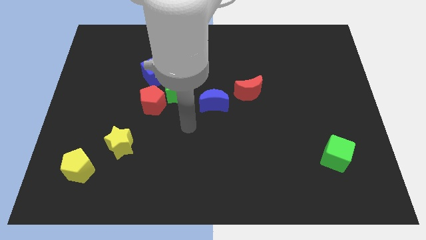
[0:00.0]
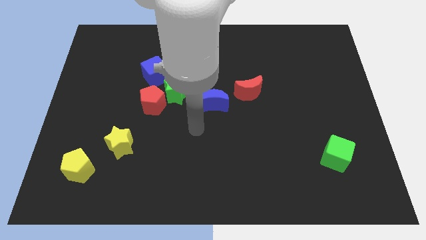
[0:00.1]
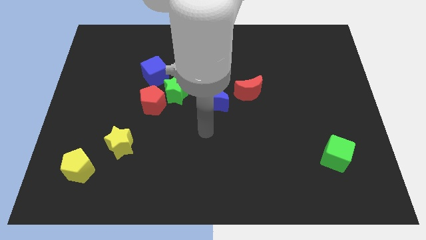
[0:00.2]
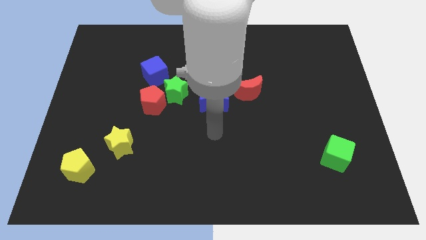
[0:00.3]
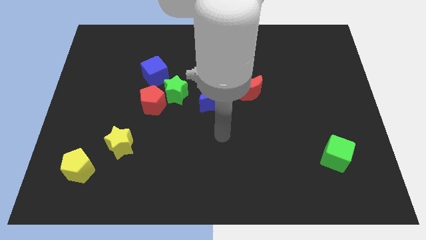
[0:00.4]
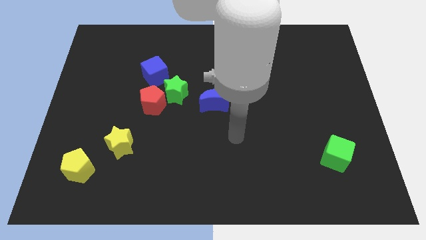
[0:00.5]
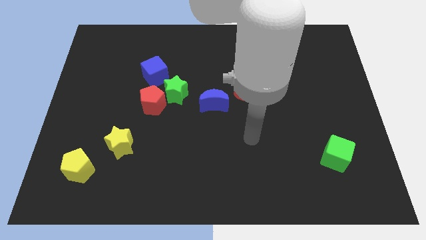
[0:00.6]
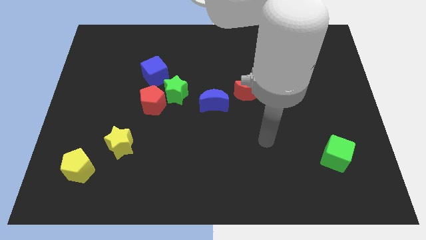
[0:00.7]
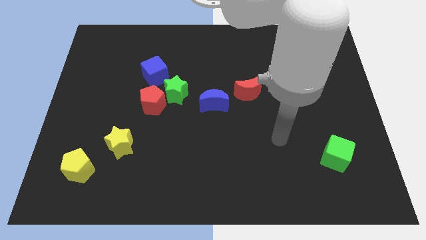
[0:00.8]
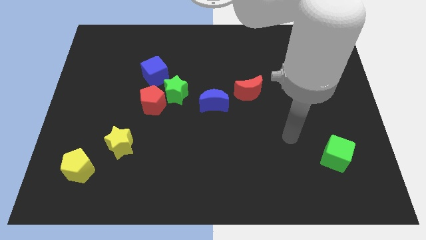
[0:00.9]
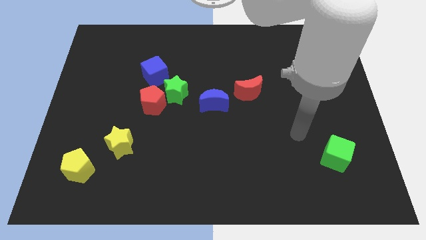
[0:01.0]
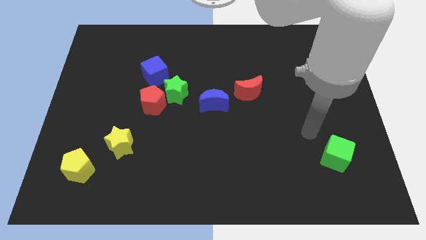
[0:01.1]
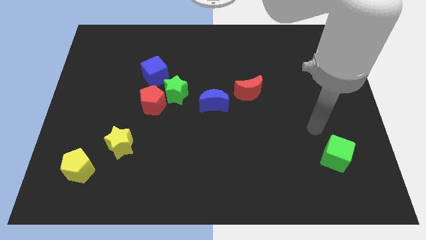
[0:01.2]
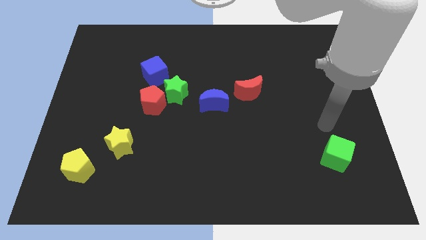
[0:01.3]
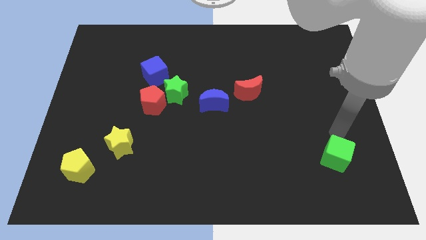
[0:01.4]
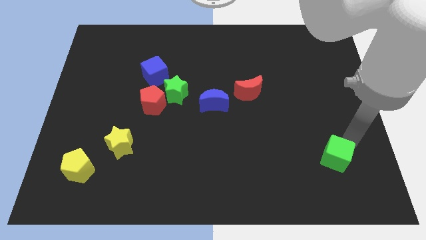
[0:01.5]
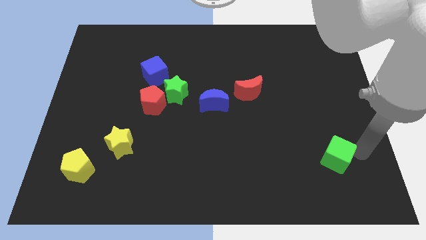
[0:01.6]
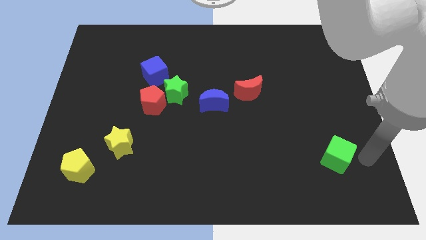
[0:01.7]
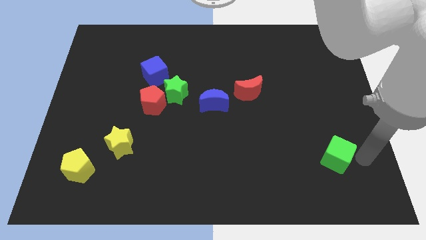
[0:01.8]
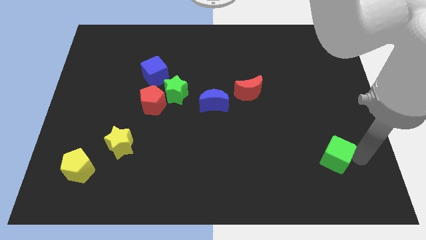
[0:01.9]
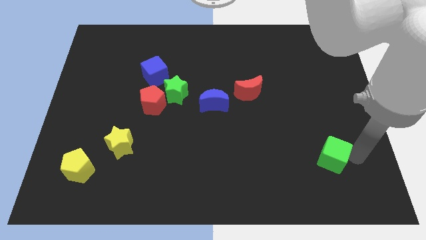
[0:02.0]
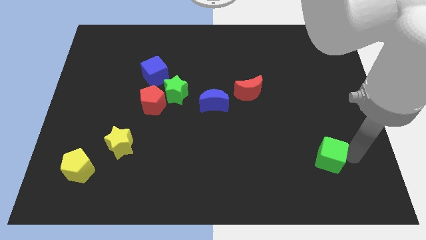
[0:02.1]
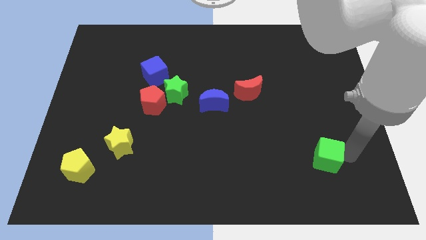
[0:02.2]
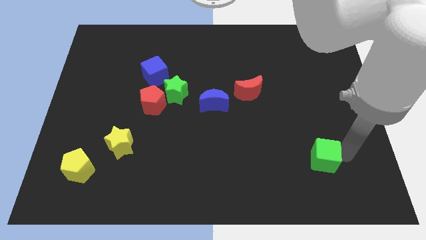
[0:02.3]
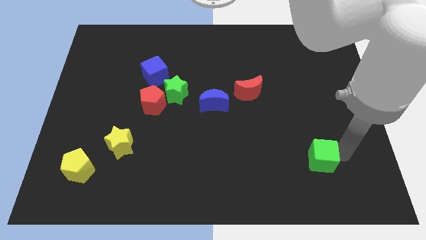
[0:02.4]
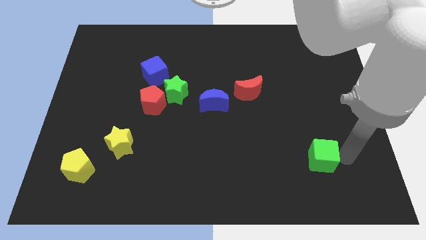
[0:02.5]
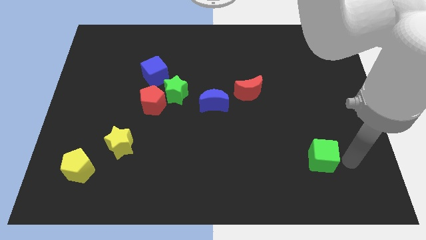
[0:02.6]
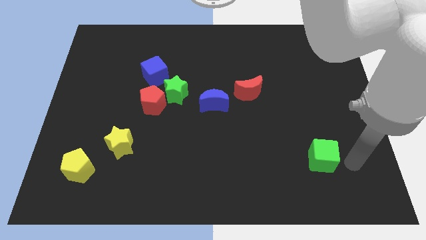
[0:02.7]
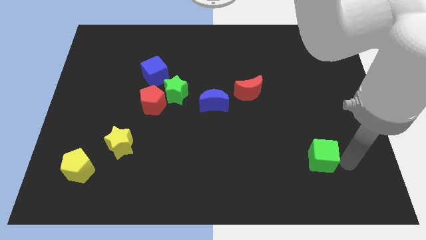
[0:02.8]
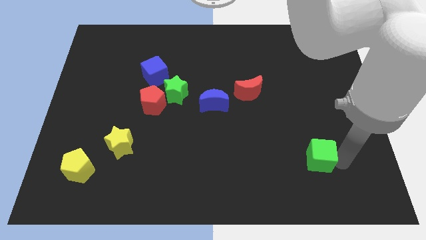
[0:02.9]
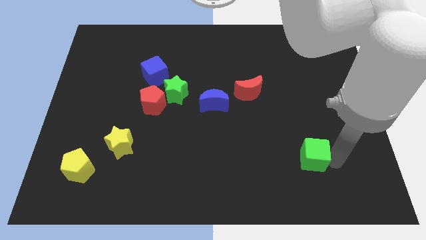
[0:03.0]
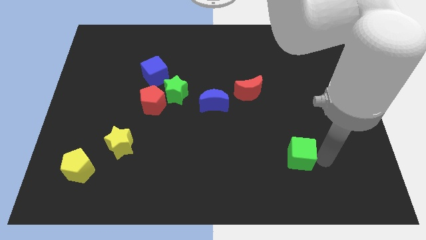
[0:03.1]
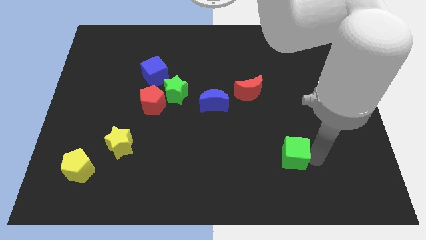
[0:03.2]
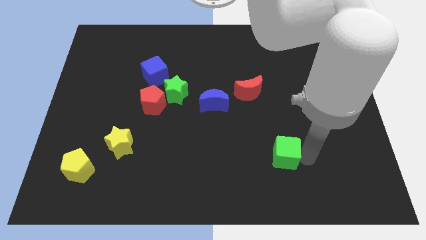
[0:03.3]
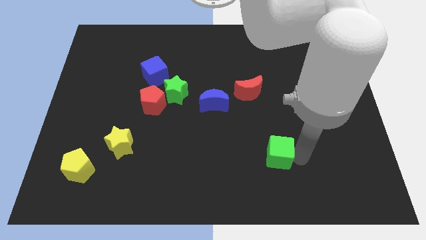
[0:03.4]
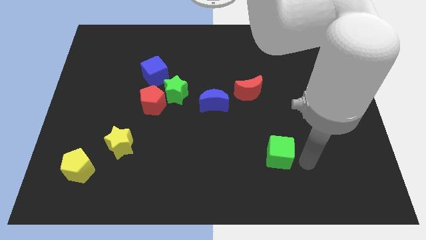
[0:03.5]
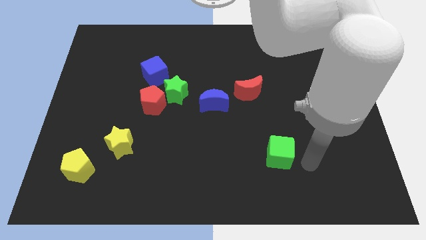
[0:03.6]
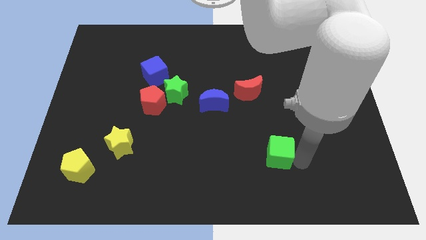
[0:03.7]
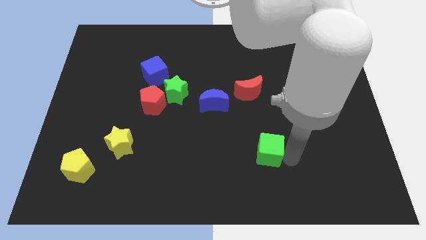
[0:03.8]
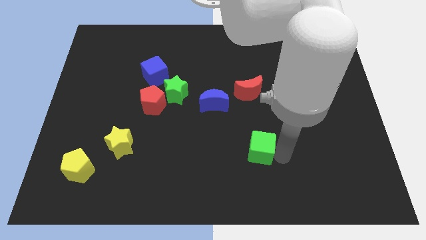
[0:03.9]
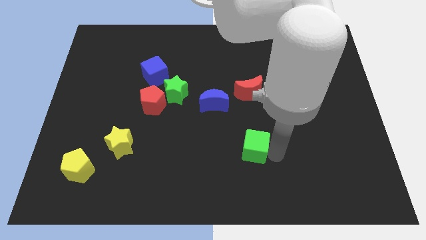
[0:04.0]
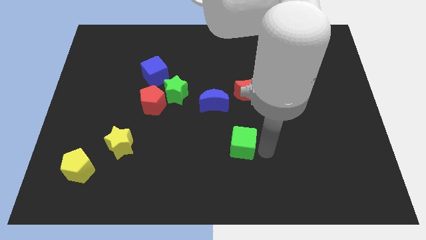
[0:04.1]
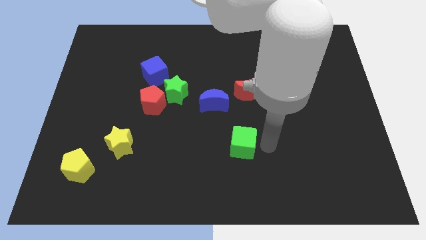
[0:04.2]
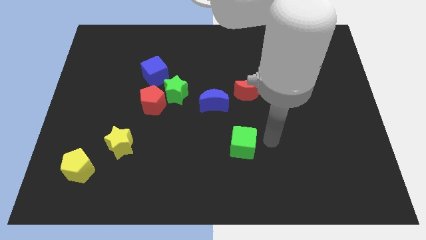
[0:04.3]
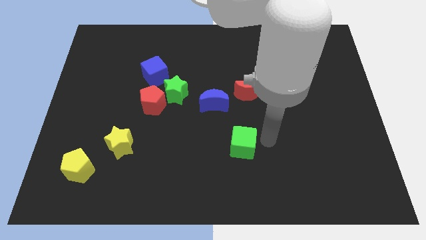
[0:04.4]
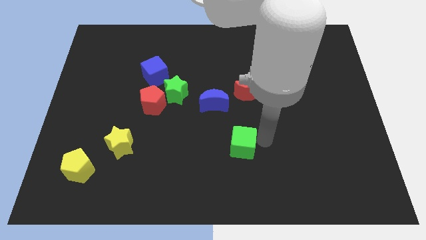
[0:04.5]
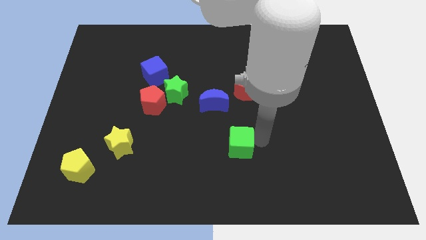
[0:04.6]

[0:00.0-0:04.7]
slide the green cube to the left

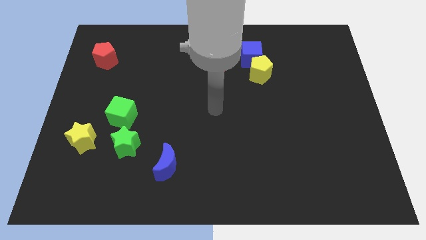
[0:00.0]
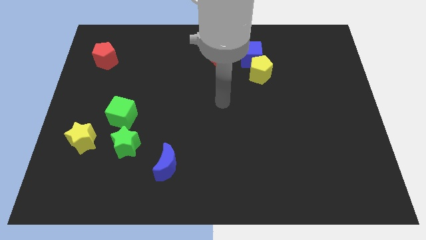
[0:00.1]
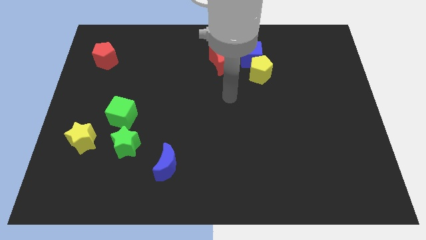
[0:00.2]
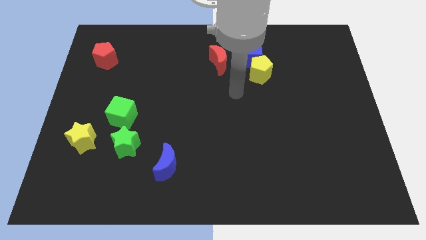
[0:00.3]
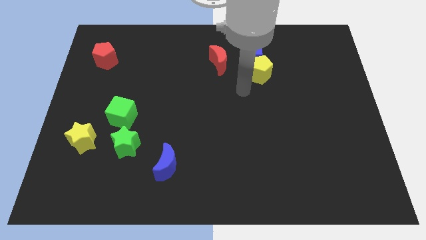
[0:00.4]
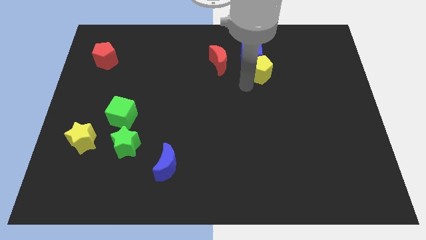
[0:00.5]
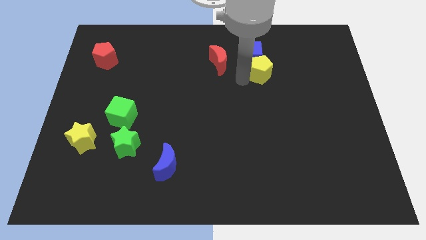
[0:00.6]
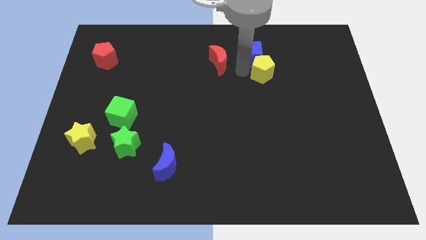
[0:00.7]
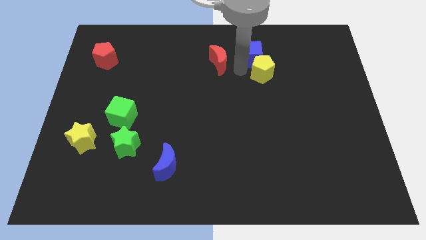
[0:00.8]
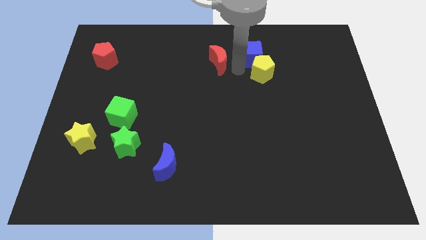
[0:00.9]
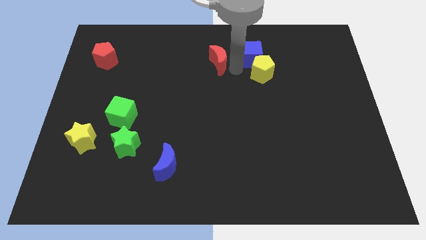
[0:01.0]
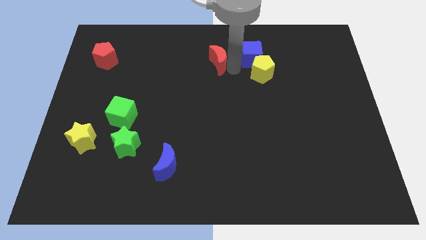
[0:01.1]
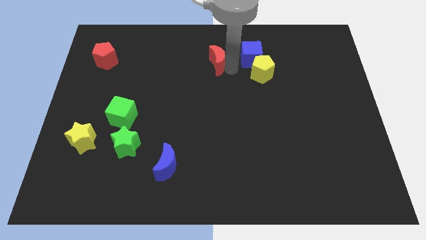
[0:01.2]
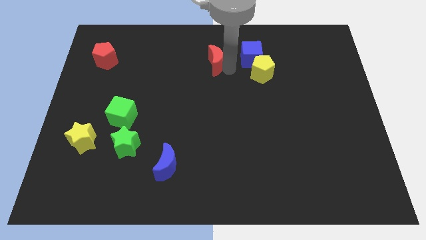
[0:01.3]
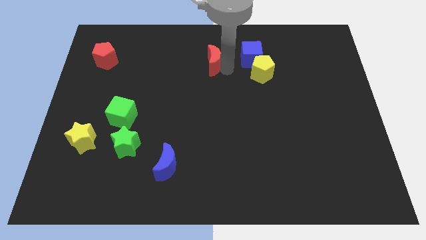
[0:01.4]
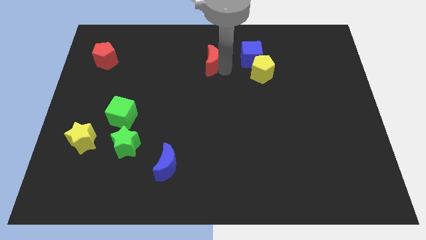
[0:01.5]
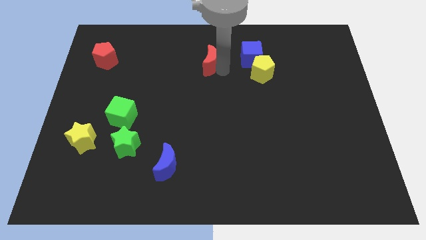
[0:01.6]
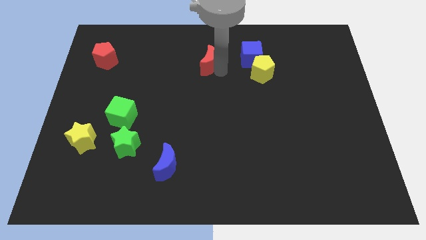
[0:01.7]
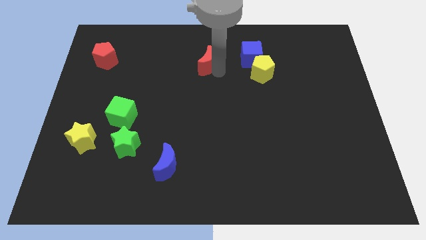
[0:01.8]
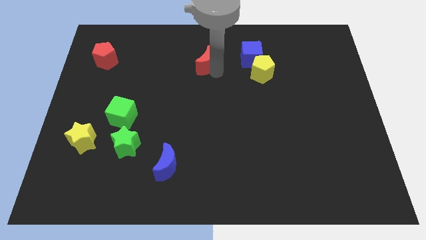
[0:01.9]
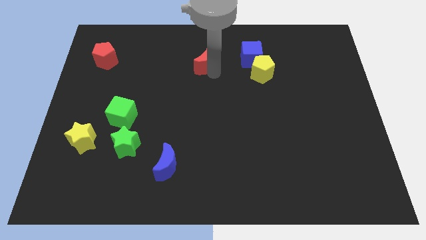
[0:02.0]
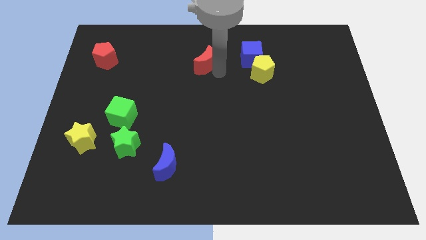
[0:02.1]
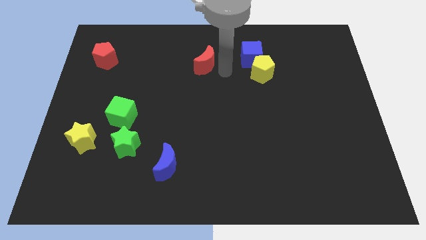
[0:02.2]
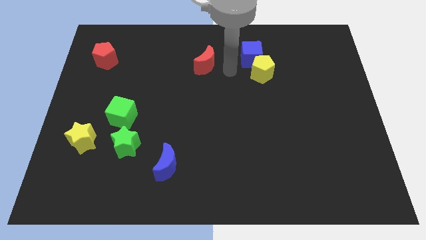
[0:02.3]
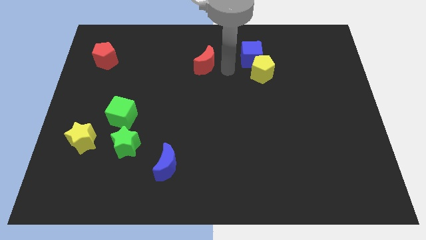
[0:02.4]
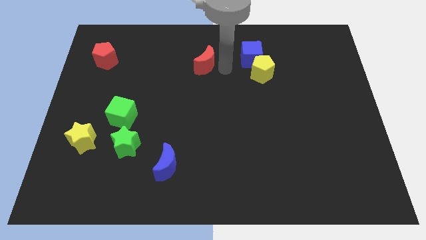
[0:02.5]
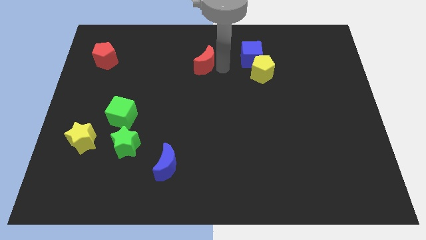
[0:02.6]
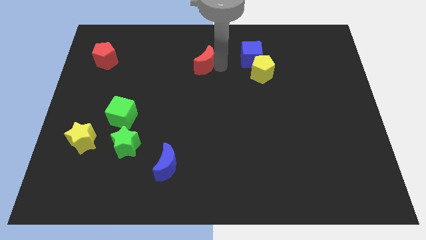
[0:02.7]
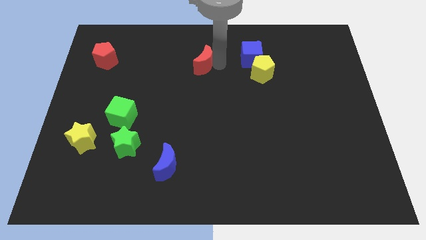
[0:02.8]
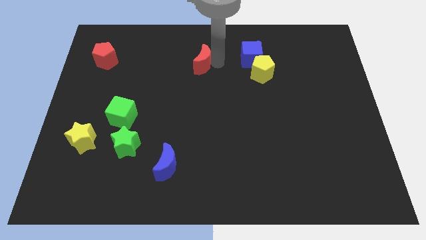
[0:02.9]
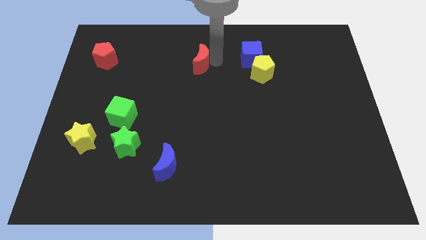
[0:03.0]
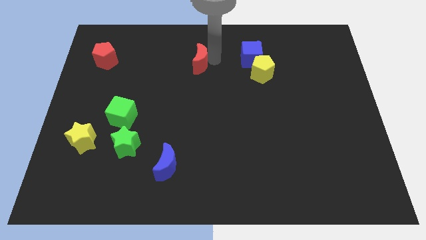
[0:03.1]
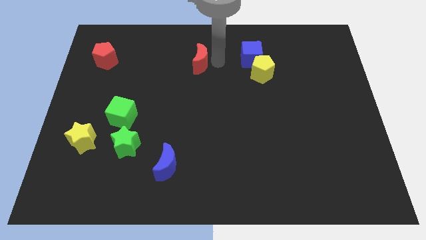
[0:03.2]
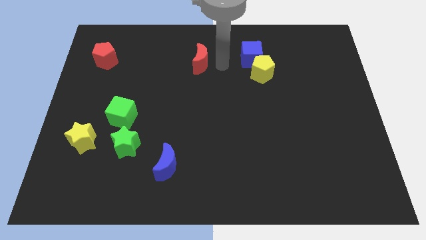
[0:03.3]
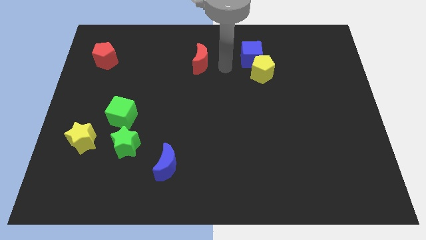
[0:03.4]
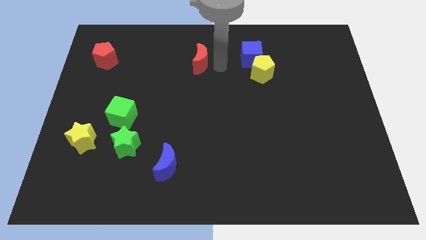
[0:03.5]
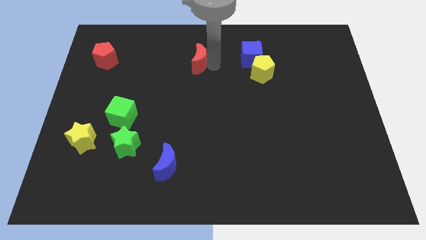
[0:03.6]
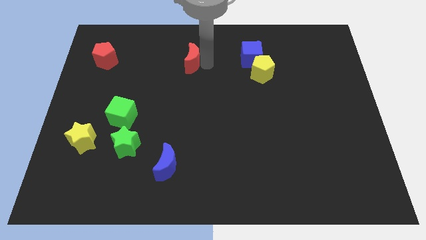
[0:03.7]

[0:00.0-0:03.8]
slide the red moon a little bit to the left
